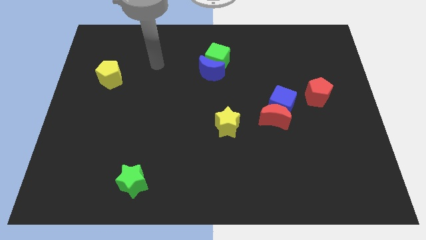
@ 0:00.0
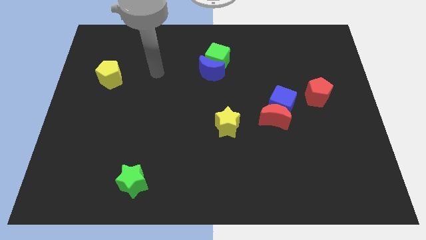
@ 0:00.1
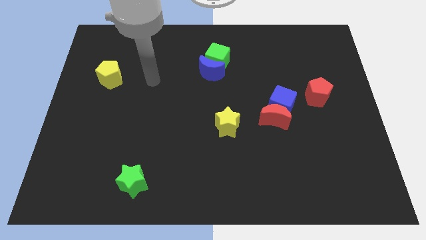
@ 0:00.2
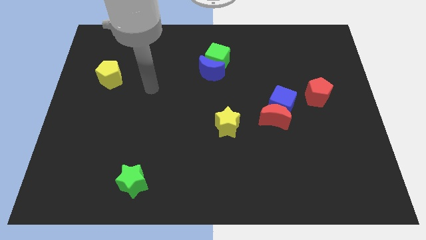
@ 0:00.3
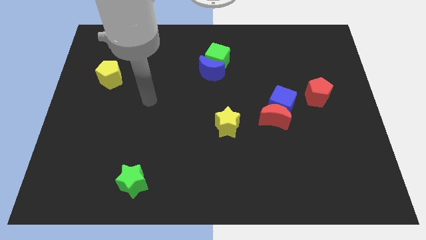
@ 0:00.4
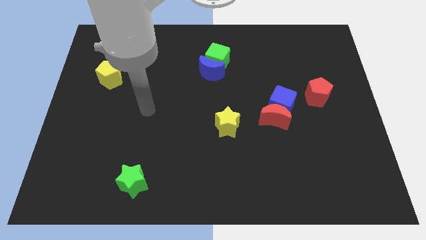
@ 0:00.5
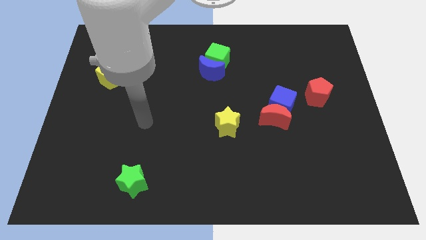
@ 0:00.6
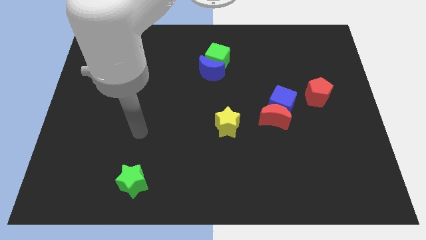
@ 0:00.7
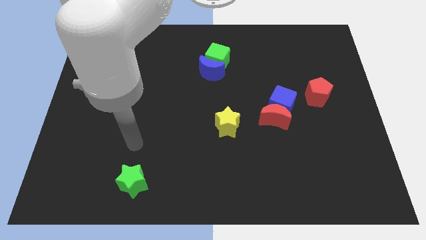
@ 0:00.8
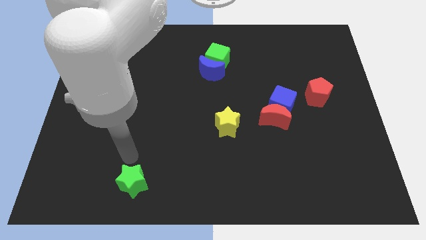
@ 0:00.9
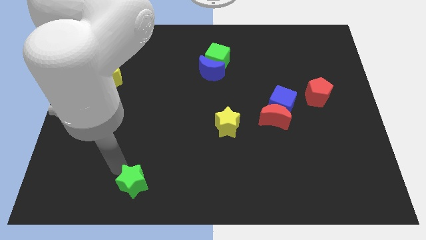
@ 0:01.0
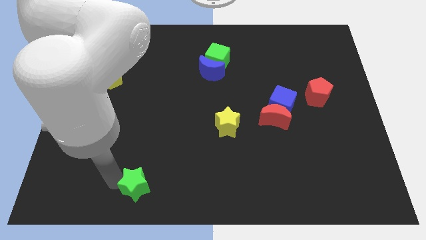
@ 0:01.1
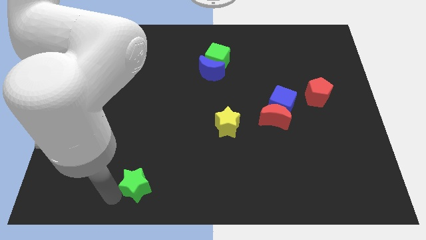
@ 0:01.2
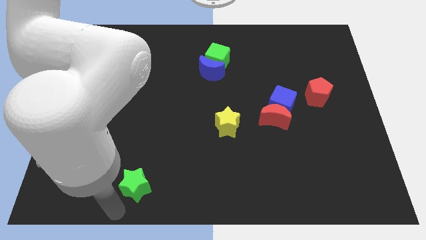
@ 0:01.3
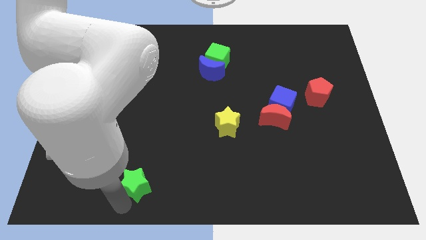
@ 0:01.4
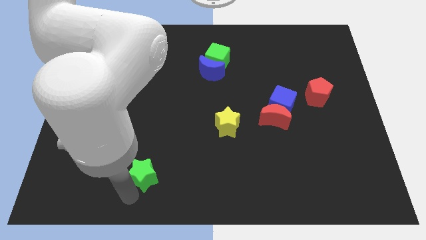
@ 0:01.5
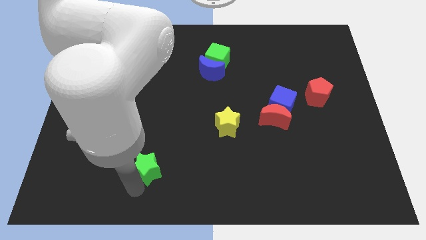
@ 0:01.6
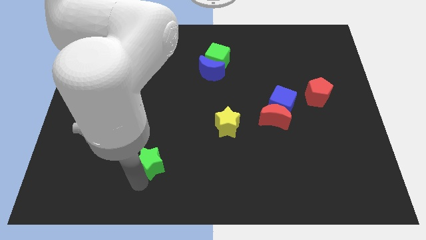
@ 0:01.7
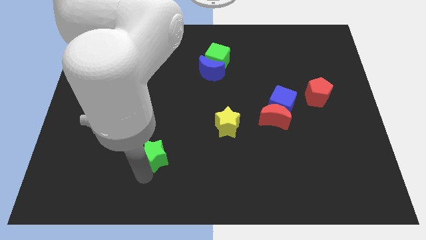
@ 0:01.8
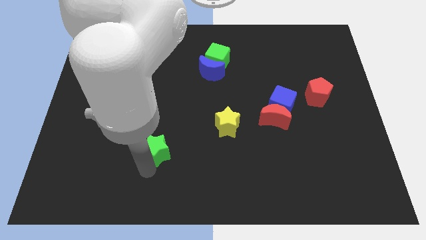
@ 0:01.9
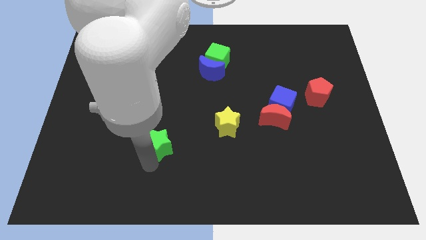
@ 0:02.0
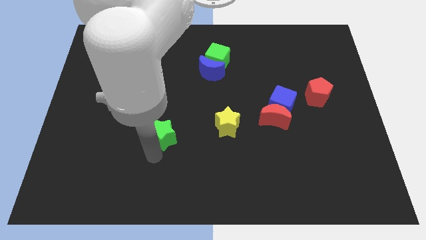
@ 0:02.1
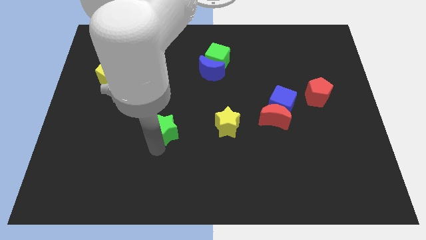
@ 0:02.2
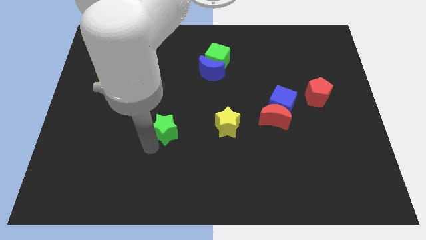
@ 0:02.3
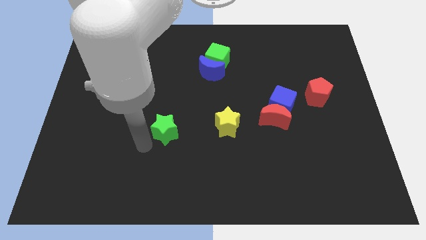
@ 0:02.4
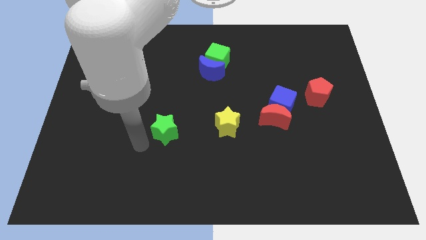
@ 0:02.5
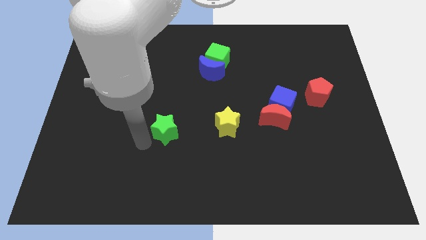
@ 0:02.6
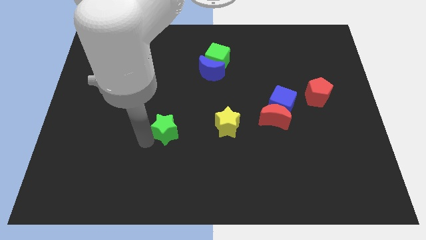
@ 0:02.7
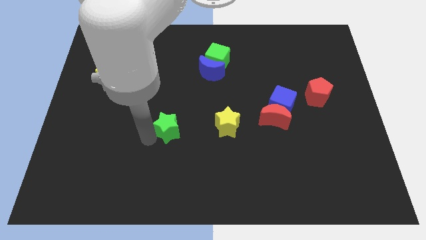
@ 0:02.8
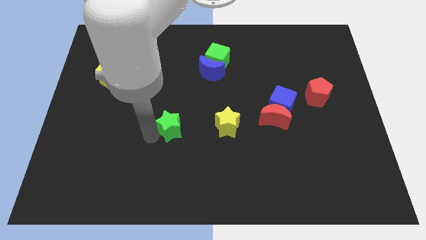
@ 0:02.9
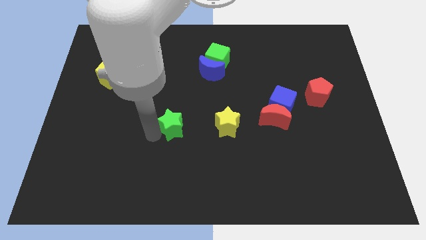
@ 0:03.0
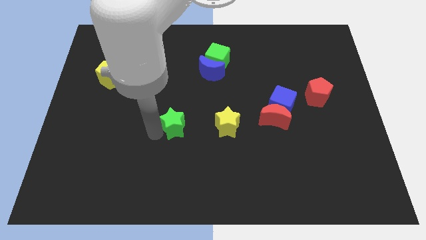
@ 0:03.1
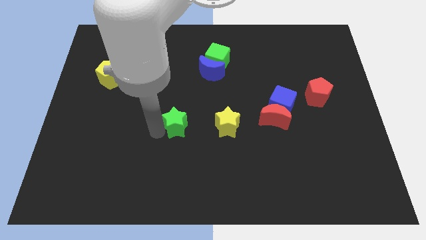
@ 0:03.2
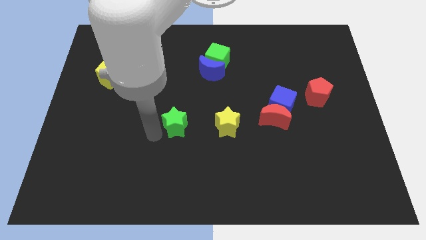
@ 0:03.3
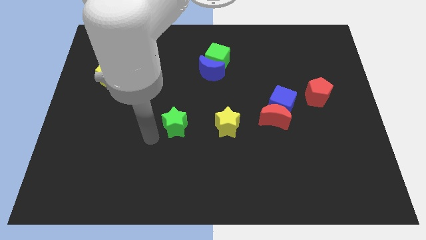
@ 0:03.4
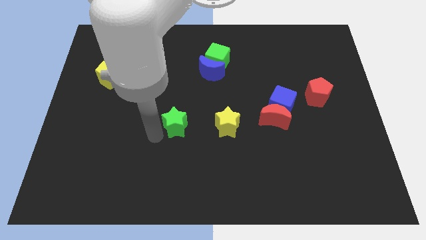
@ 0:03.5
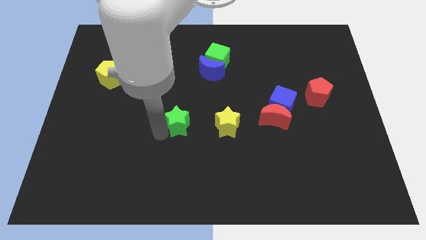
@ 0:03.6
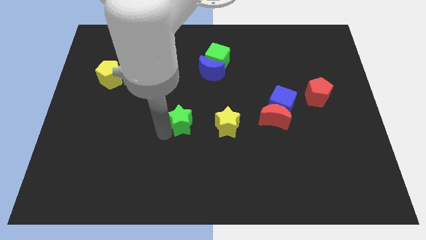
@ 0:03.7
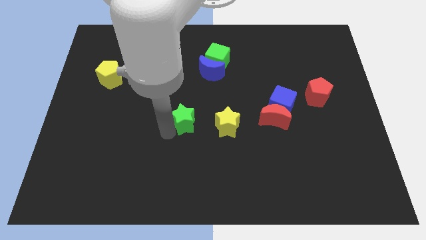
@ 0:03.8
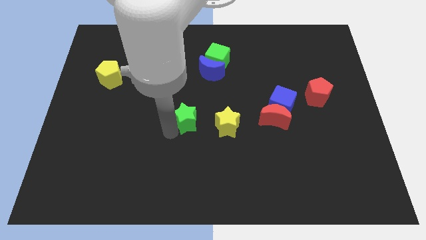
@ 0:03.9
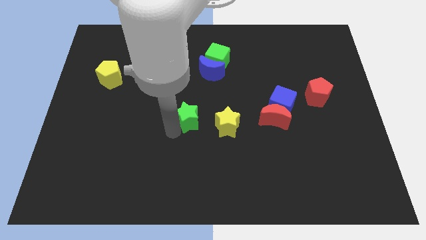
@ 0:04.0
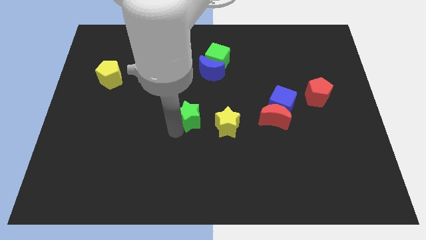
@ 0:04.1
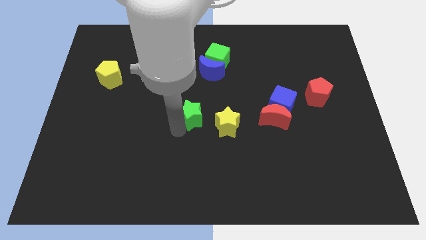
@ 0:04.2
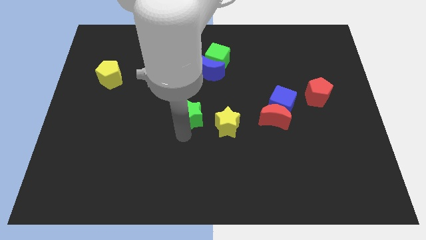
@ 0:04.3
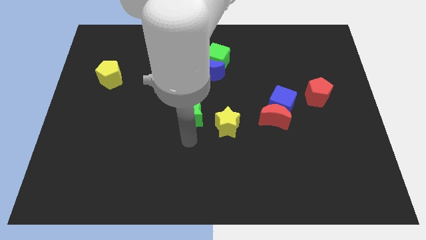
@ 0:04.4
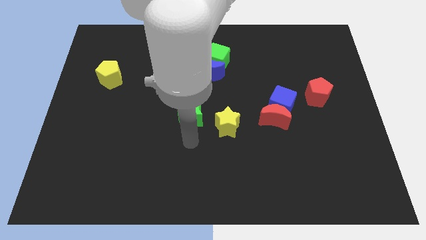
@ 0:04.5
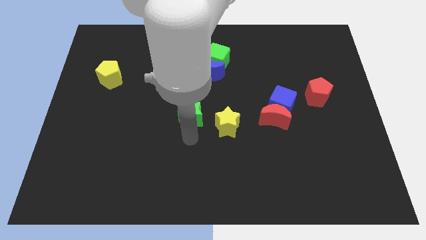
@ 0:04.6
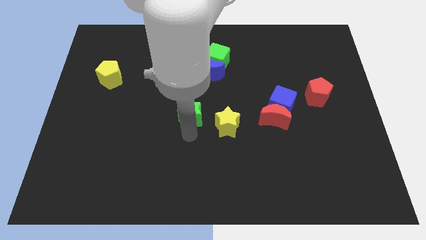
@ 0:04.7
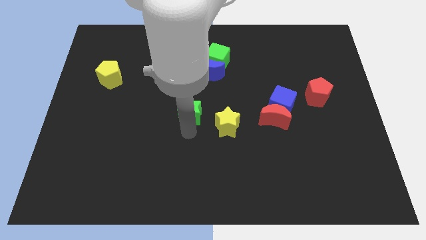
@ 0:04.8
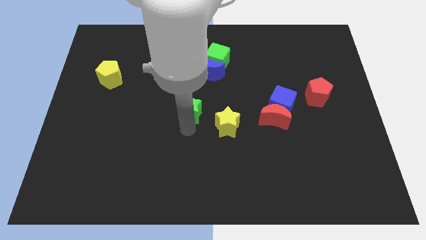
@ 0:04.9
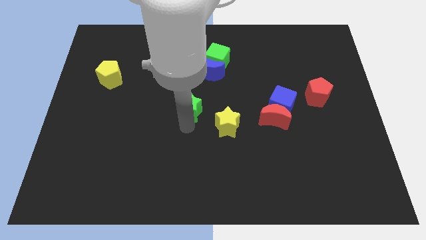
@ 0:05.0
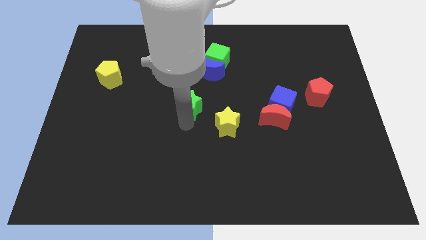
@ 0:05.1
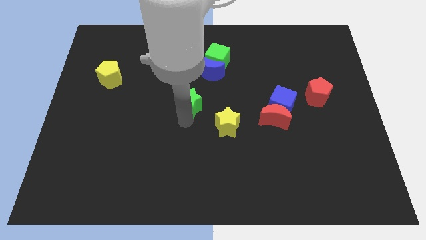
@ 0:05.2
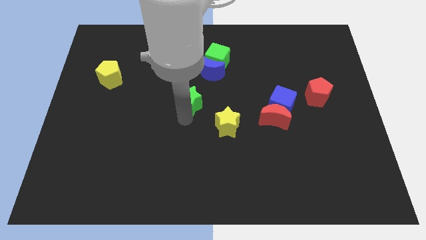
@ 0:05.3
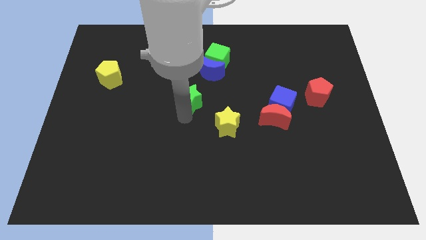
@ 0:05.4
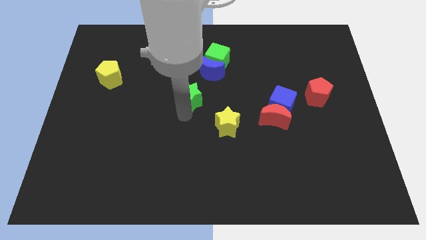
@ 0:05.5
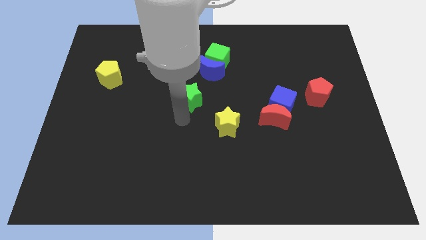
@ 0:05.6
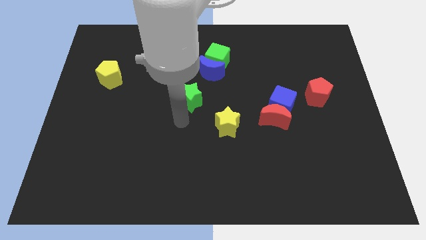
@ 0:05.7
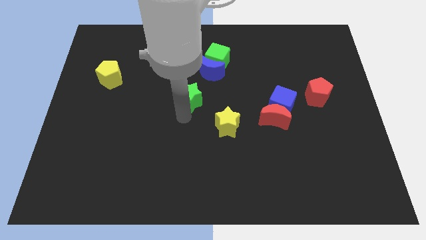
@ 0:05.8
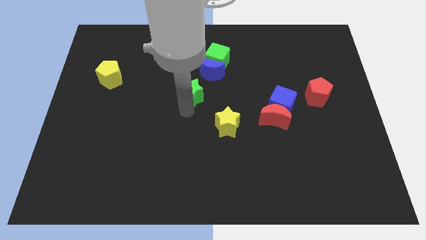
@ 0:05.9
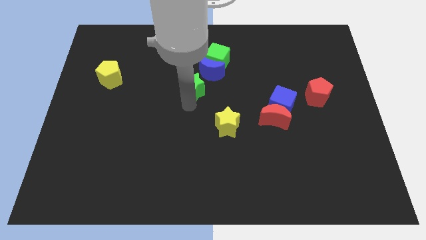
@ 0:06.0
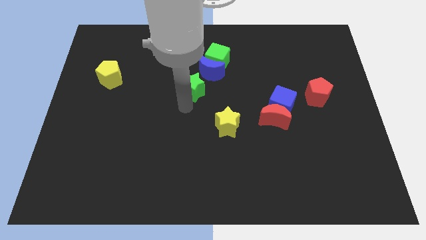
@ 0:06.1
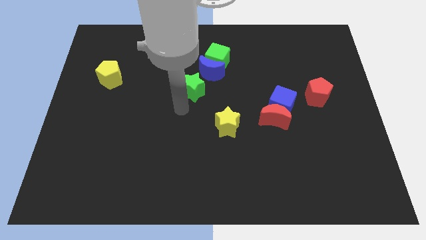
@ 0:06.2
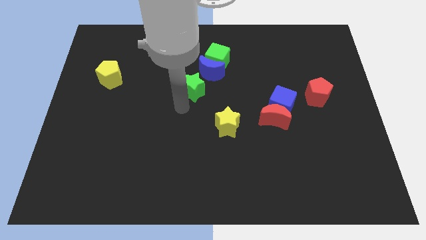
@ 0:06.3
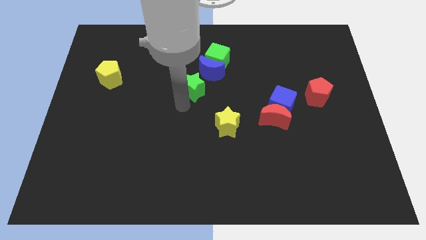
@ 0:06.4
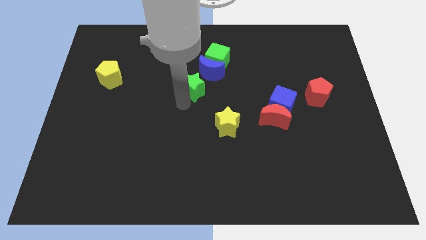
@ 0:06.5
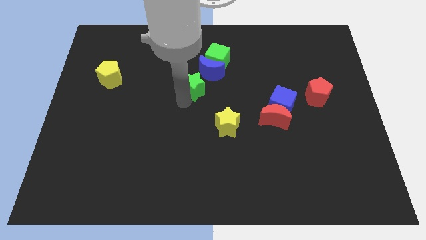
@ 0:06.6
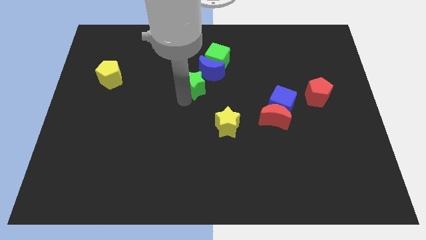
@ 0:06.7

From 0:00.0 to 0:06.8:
put the green star close to the blue moon
